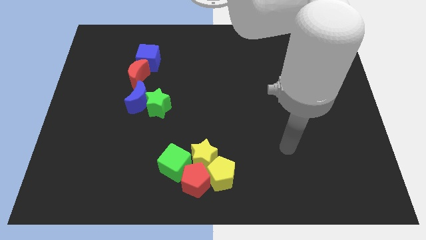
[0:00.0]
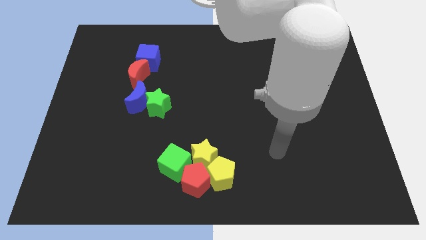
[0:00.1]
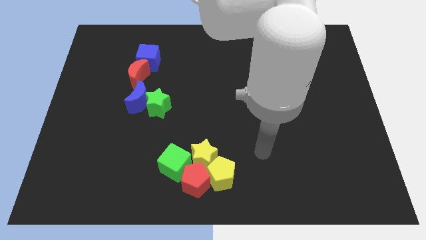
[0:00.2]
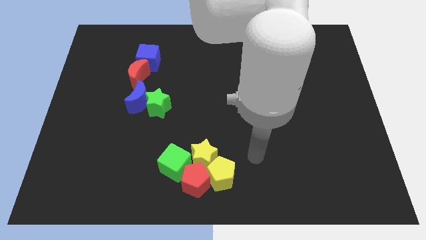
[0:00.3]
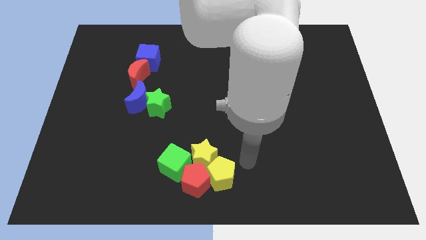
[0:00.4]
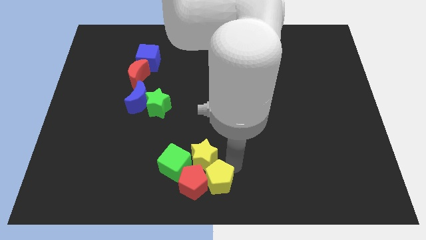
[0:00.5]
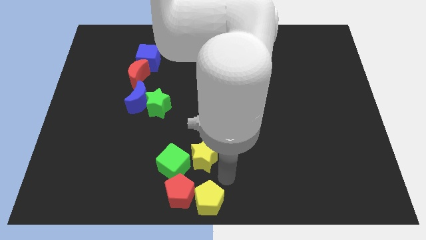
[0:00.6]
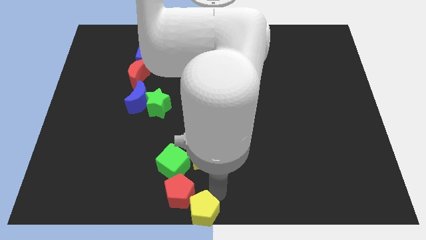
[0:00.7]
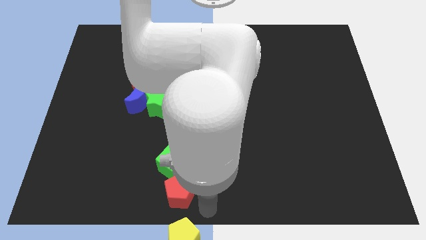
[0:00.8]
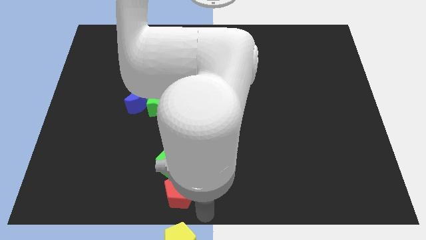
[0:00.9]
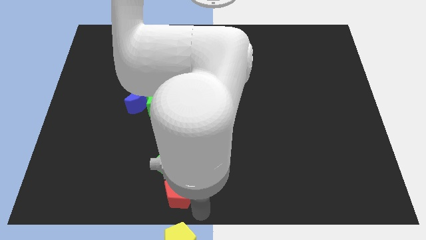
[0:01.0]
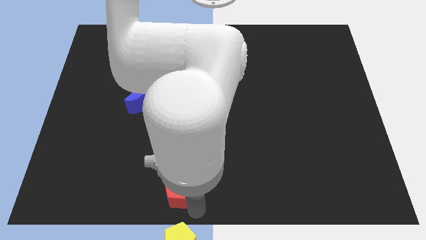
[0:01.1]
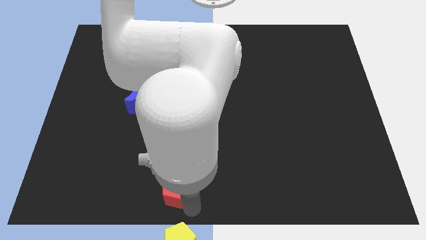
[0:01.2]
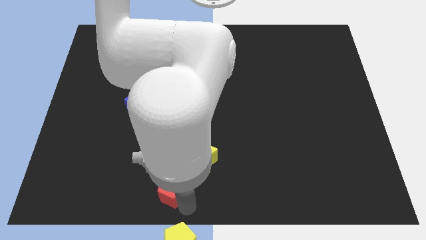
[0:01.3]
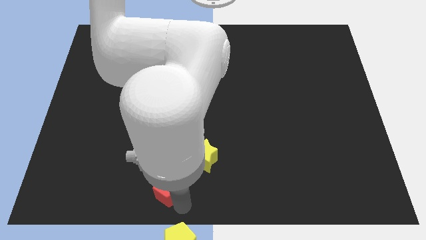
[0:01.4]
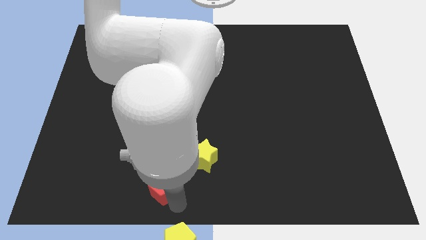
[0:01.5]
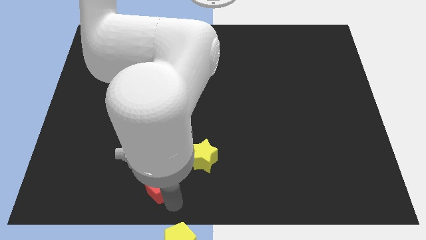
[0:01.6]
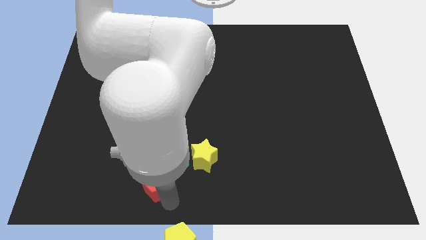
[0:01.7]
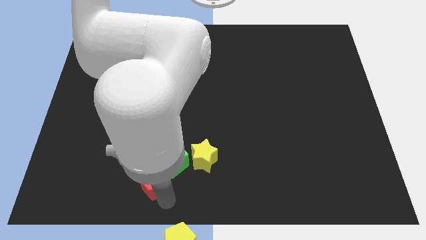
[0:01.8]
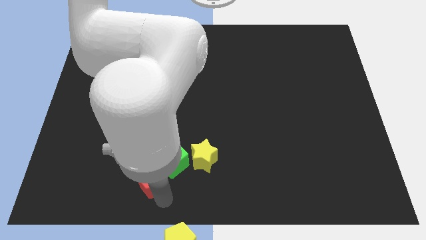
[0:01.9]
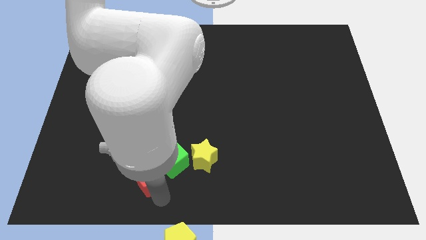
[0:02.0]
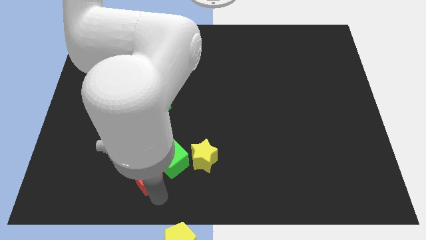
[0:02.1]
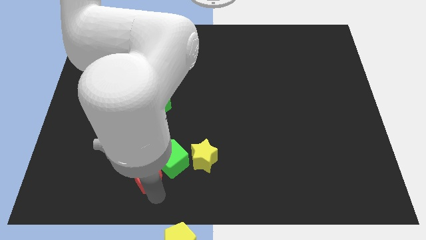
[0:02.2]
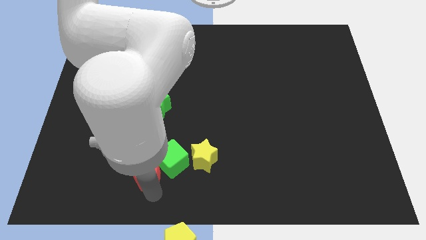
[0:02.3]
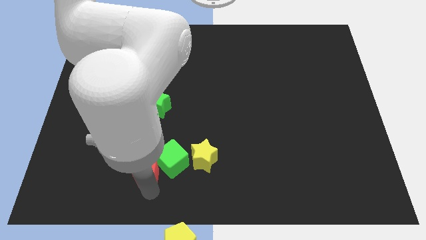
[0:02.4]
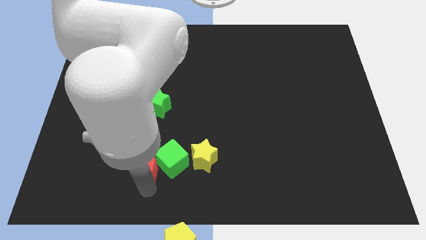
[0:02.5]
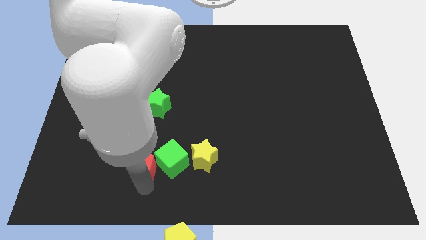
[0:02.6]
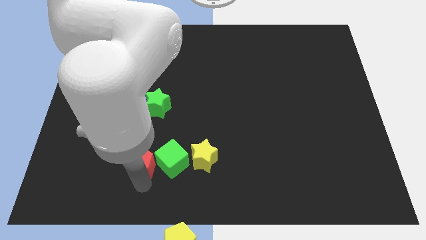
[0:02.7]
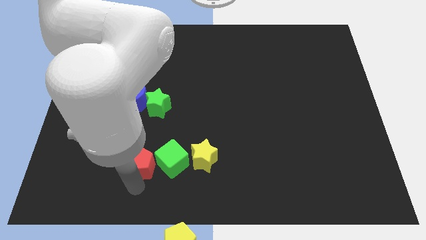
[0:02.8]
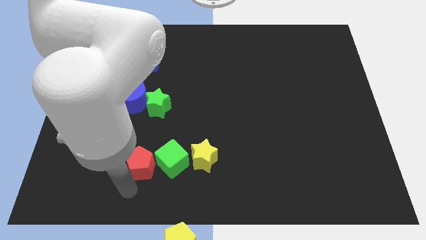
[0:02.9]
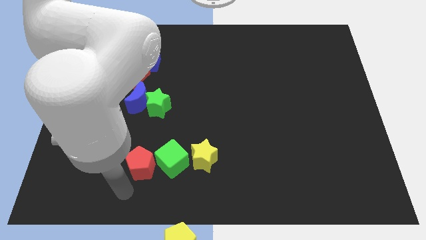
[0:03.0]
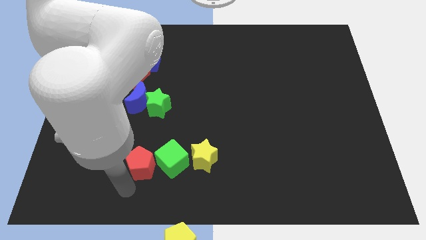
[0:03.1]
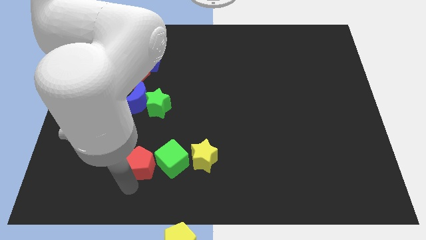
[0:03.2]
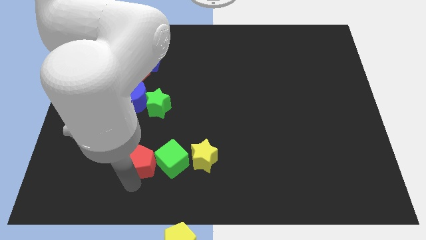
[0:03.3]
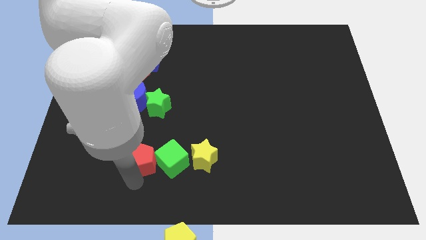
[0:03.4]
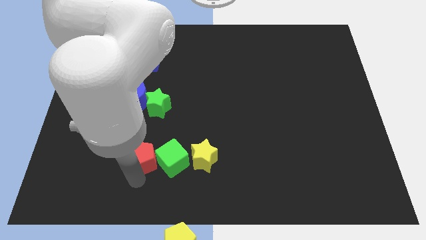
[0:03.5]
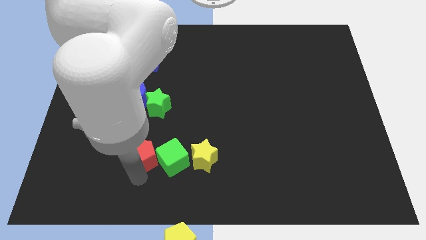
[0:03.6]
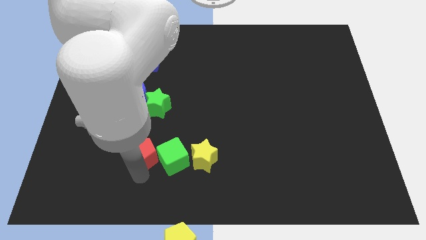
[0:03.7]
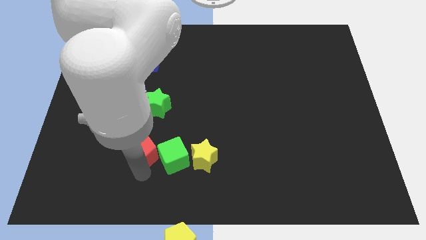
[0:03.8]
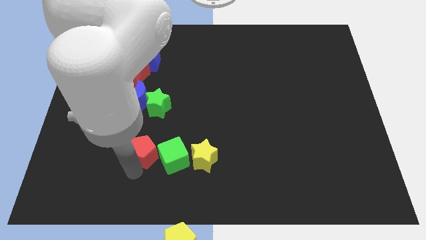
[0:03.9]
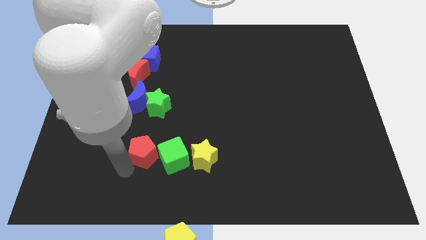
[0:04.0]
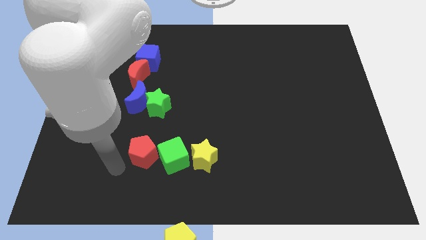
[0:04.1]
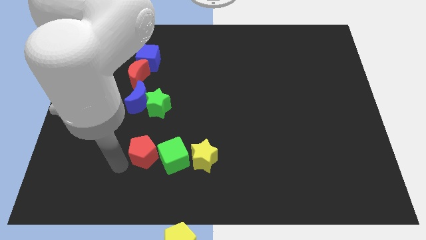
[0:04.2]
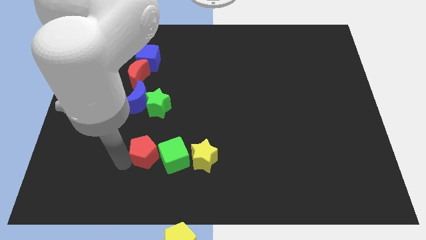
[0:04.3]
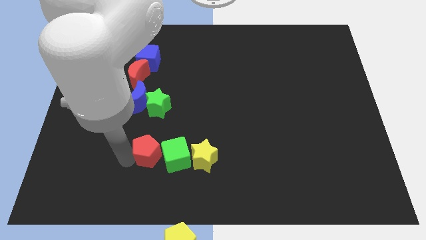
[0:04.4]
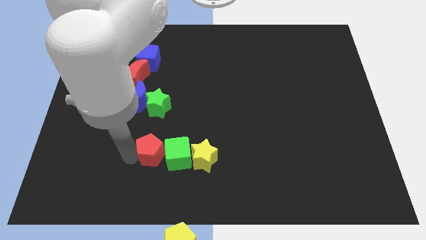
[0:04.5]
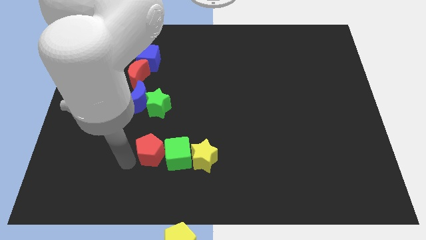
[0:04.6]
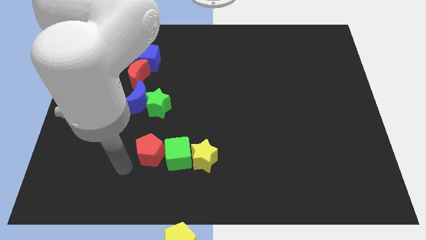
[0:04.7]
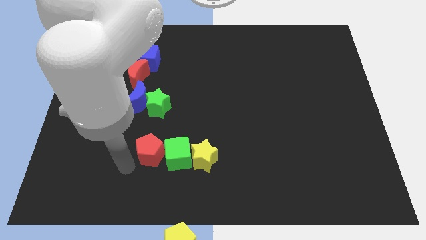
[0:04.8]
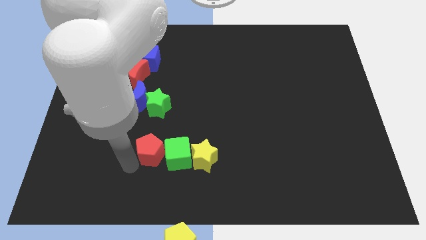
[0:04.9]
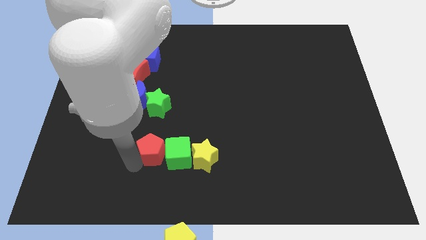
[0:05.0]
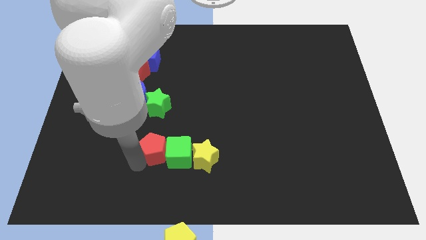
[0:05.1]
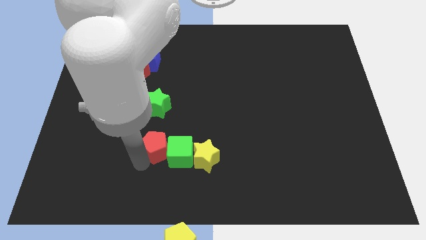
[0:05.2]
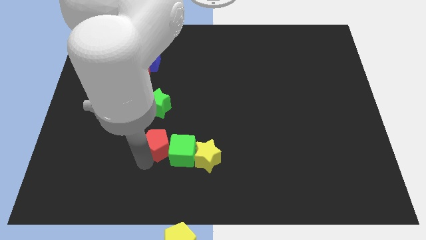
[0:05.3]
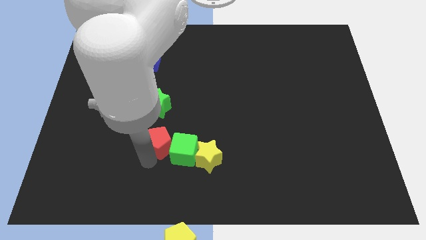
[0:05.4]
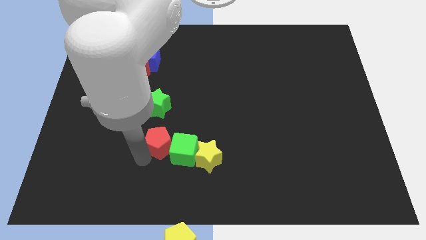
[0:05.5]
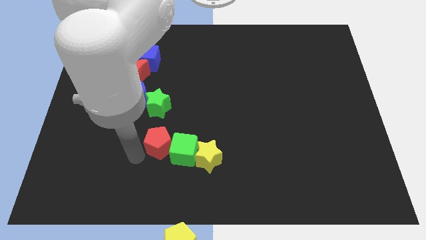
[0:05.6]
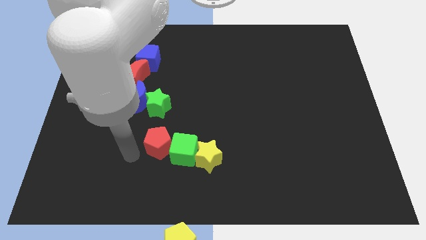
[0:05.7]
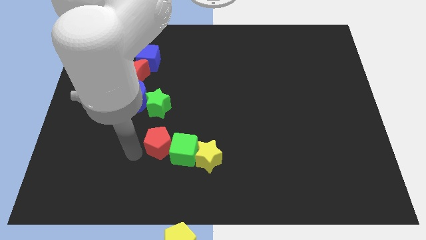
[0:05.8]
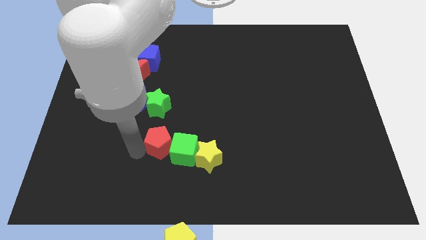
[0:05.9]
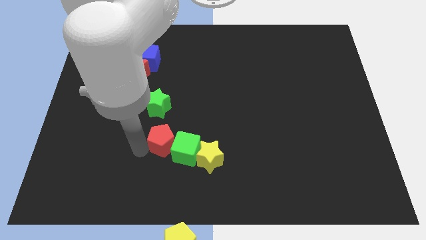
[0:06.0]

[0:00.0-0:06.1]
push the red pentagon to the top left side of the yellow star

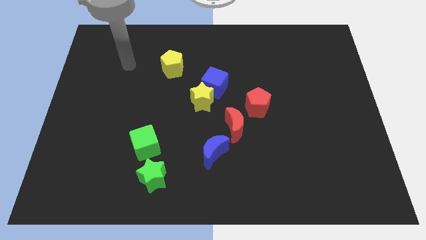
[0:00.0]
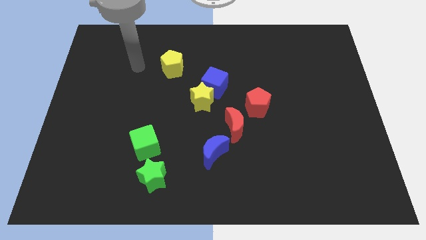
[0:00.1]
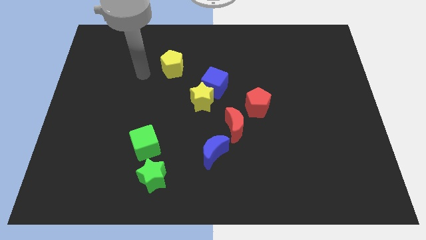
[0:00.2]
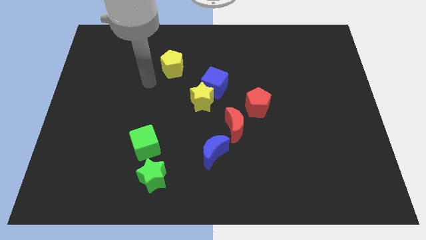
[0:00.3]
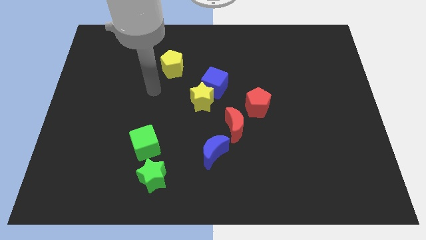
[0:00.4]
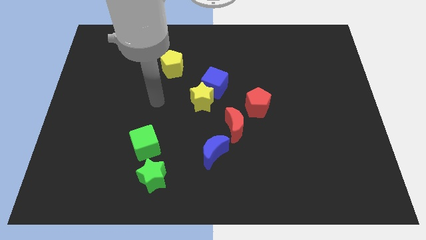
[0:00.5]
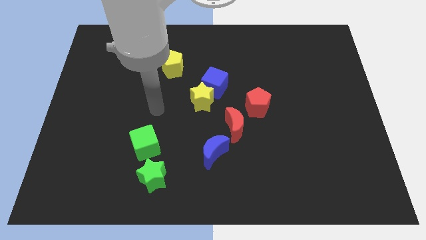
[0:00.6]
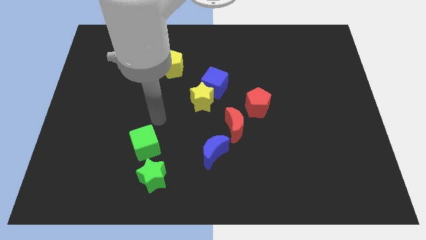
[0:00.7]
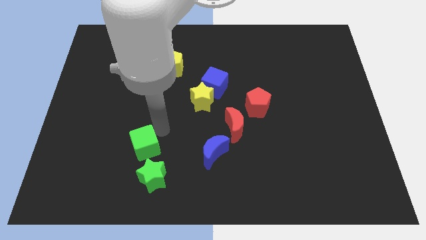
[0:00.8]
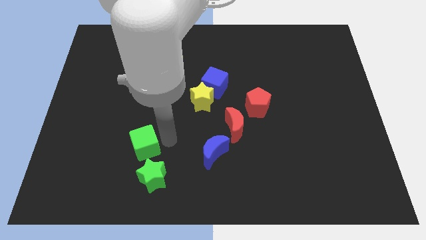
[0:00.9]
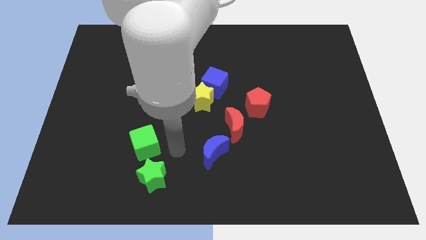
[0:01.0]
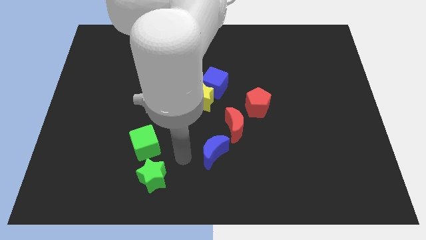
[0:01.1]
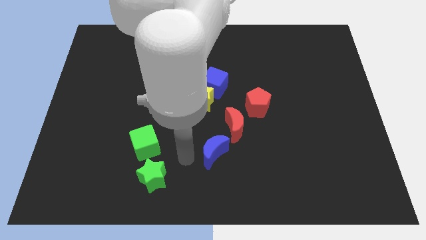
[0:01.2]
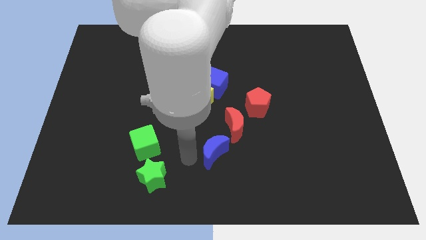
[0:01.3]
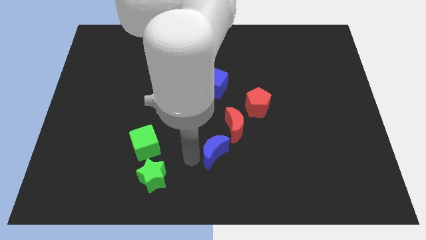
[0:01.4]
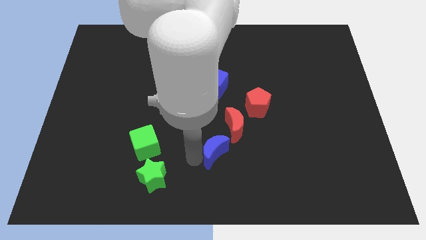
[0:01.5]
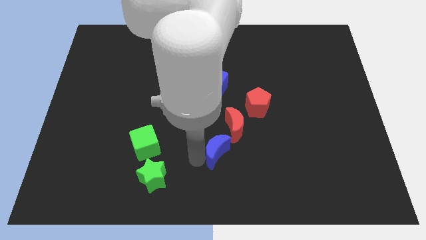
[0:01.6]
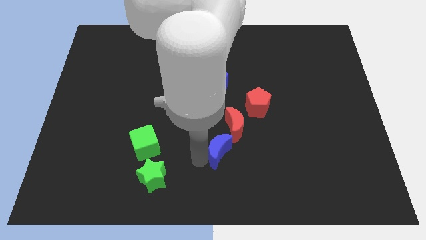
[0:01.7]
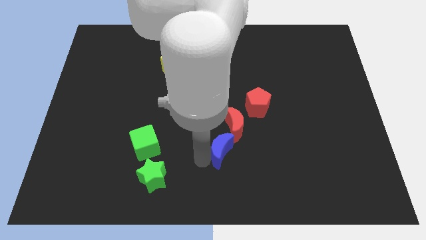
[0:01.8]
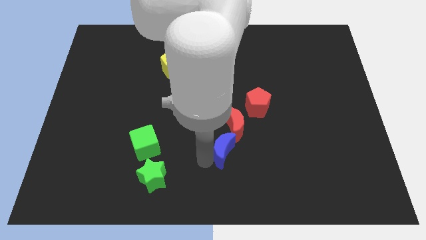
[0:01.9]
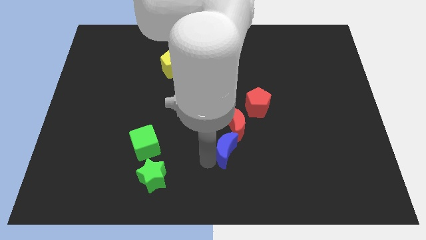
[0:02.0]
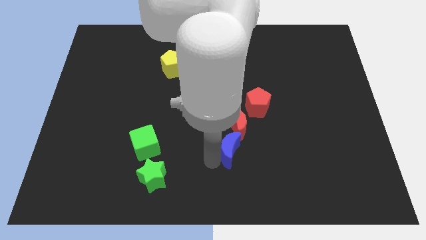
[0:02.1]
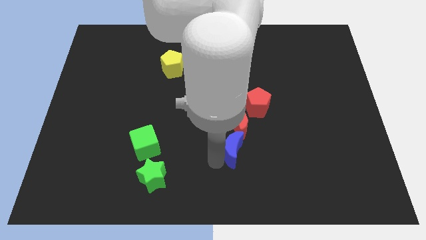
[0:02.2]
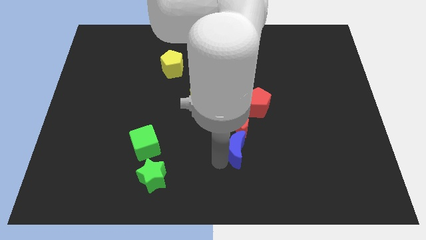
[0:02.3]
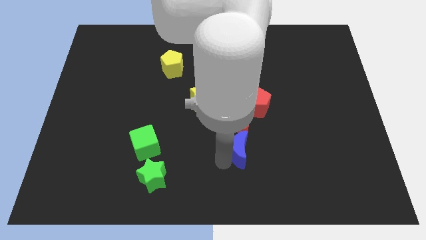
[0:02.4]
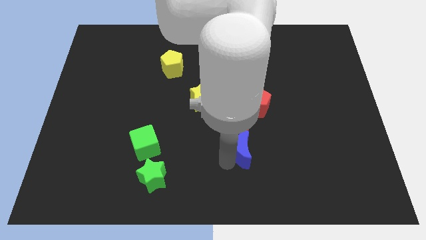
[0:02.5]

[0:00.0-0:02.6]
move the blue moon to the bottom right of the red moon
